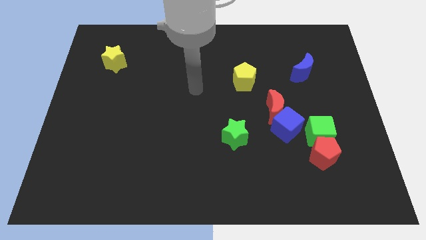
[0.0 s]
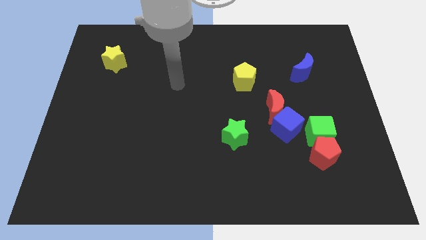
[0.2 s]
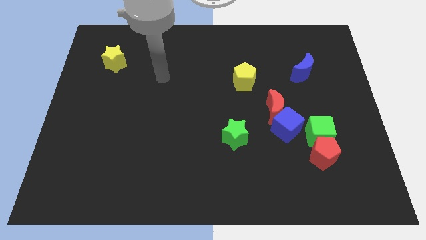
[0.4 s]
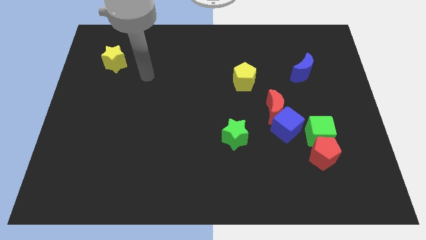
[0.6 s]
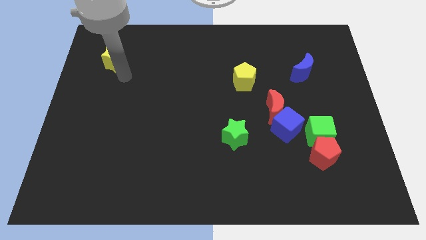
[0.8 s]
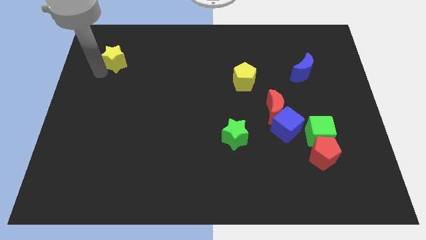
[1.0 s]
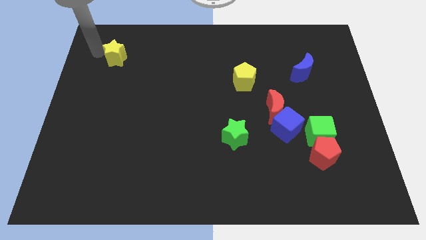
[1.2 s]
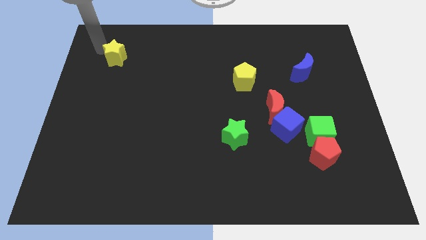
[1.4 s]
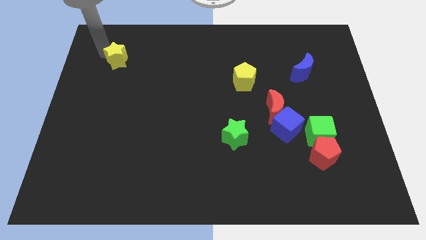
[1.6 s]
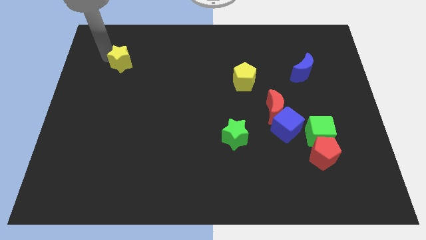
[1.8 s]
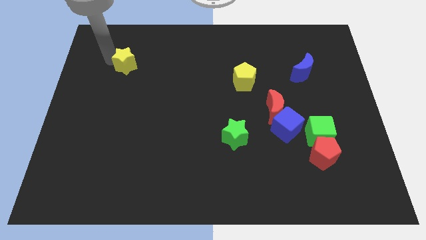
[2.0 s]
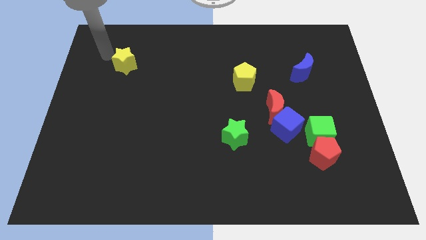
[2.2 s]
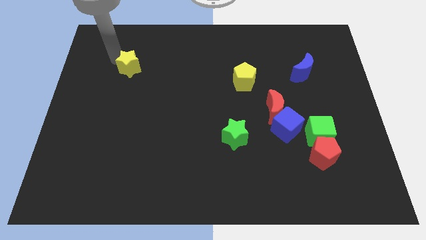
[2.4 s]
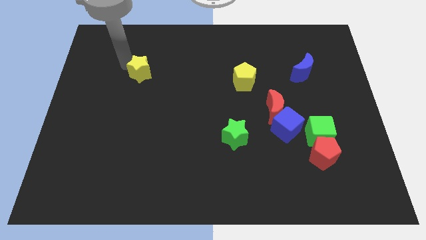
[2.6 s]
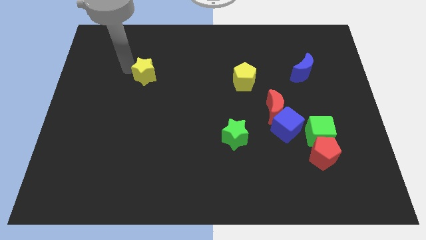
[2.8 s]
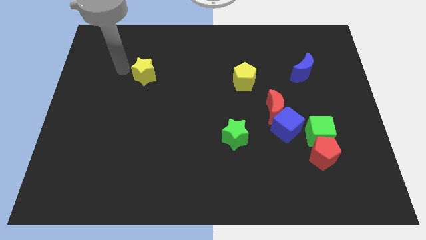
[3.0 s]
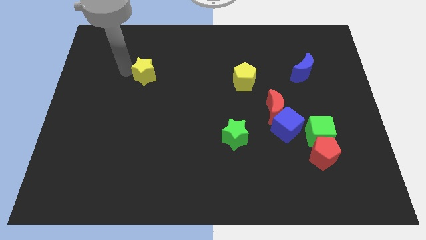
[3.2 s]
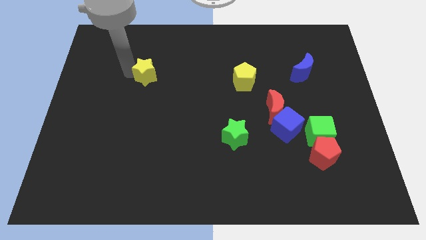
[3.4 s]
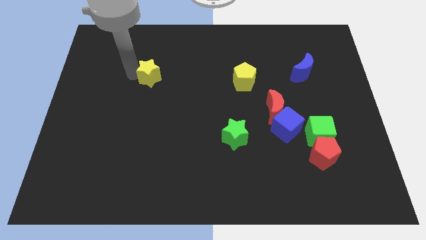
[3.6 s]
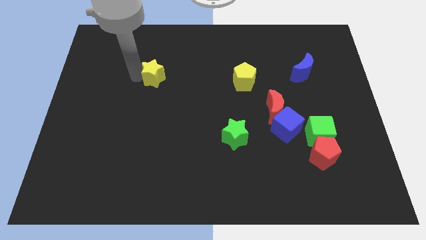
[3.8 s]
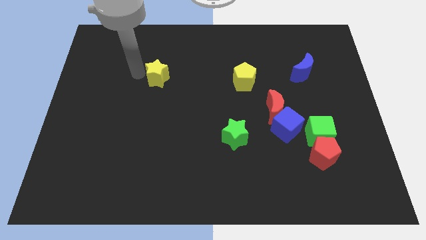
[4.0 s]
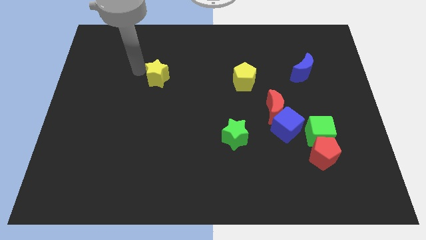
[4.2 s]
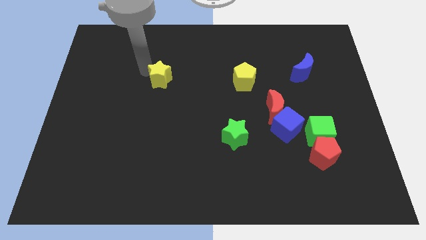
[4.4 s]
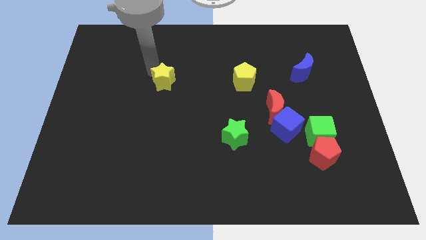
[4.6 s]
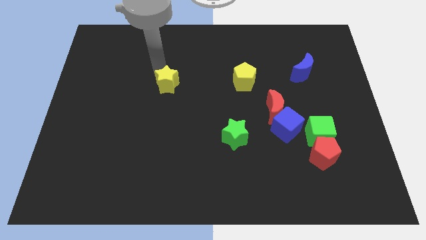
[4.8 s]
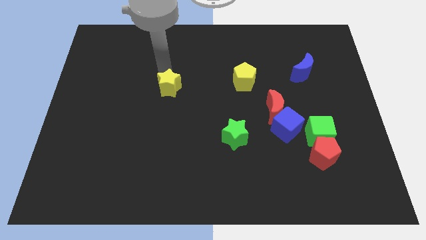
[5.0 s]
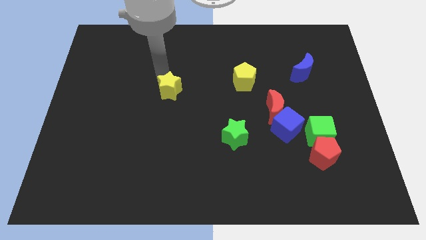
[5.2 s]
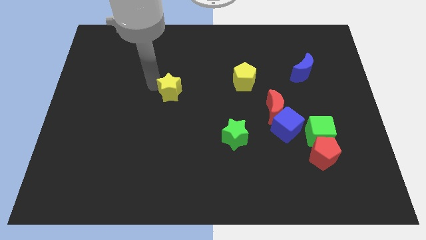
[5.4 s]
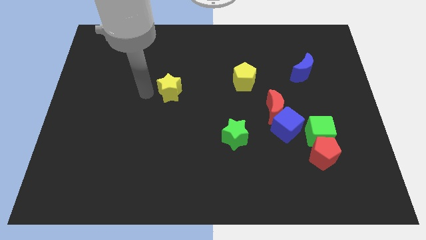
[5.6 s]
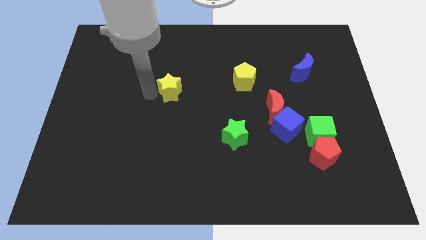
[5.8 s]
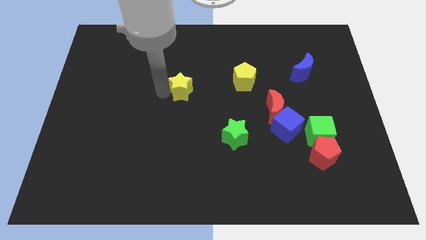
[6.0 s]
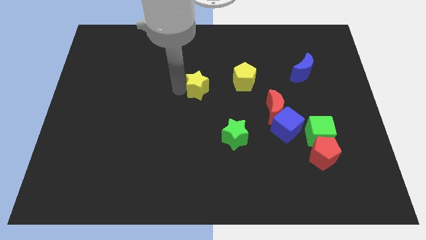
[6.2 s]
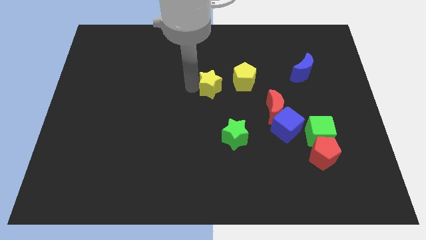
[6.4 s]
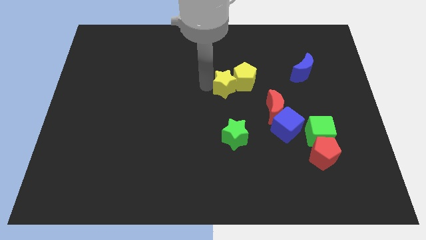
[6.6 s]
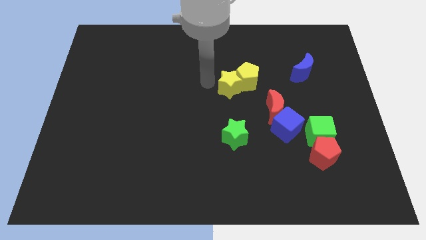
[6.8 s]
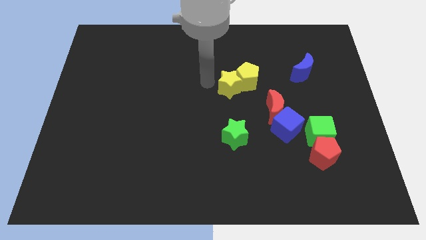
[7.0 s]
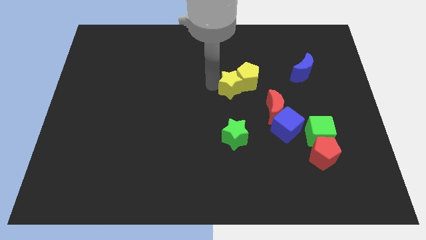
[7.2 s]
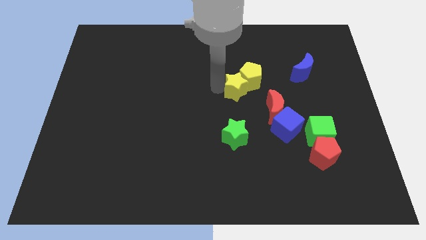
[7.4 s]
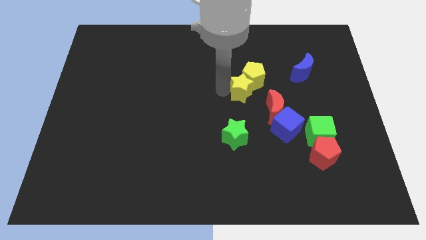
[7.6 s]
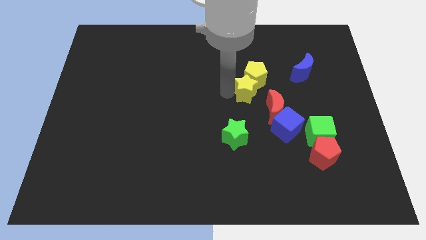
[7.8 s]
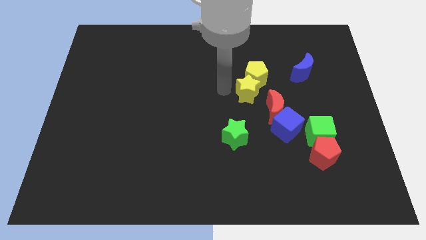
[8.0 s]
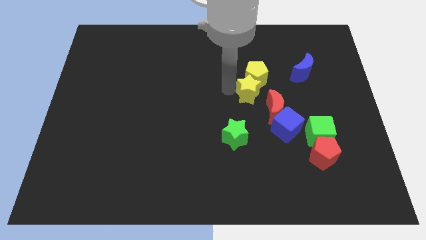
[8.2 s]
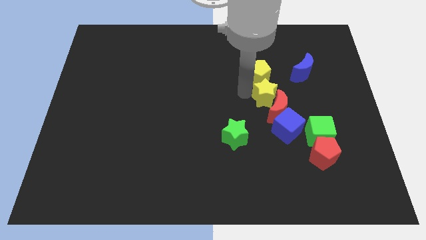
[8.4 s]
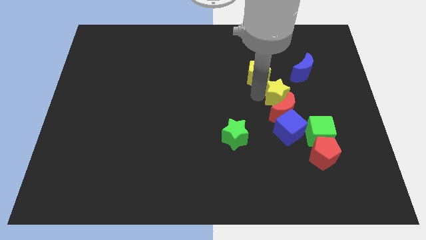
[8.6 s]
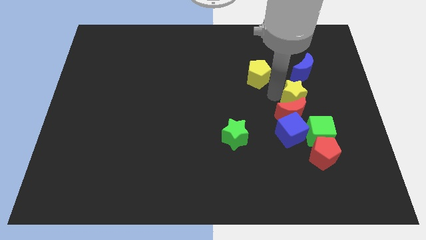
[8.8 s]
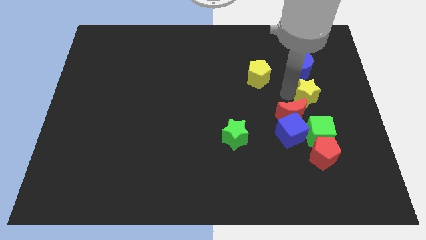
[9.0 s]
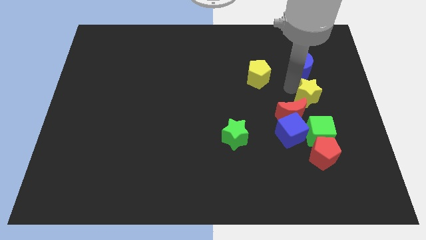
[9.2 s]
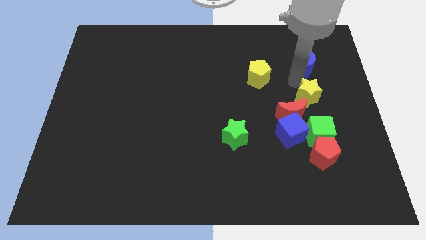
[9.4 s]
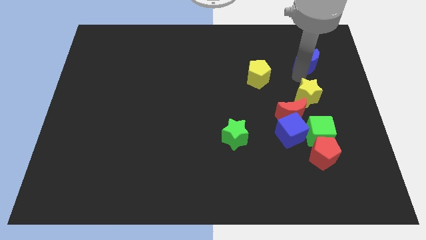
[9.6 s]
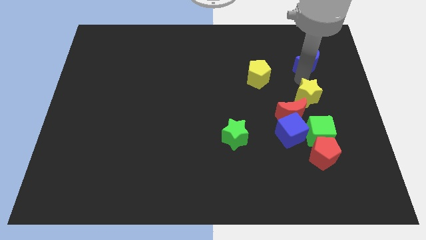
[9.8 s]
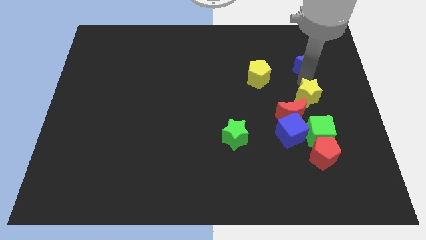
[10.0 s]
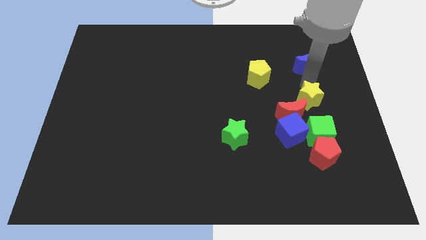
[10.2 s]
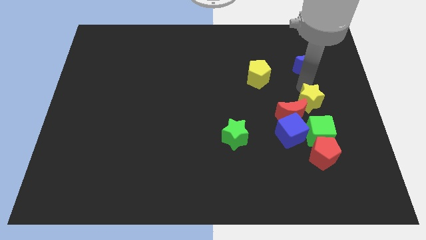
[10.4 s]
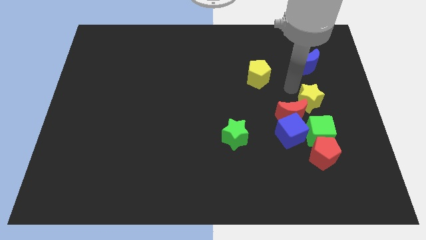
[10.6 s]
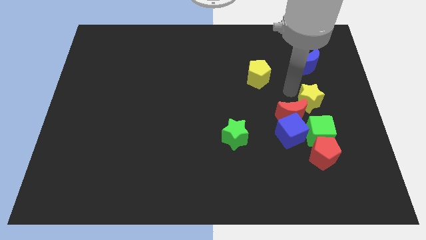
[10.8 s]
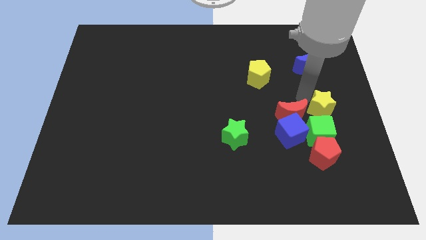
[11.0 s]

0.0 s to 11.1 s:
put the yellow star diagonally up and to the right of the green cube

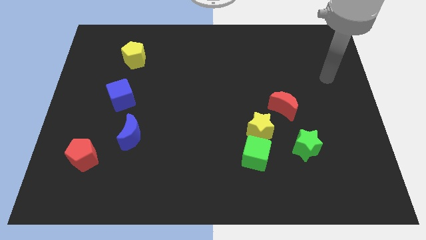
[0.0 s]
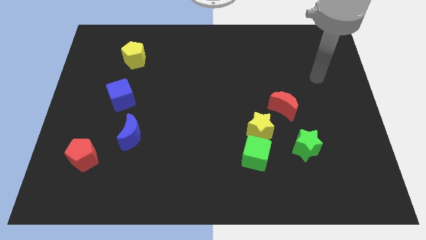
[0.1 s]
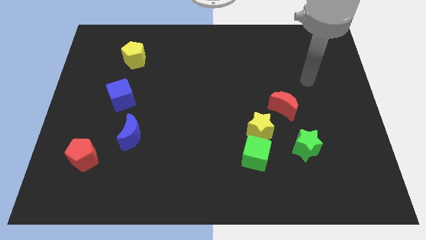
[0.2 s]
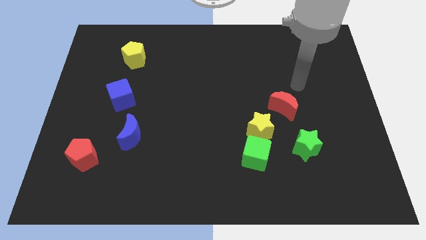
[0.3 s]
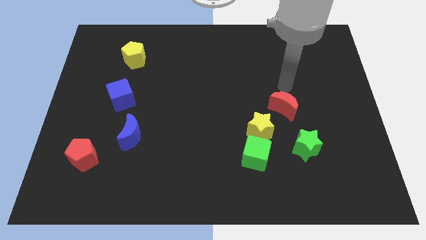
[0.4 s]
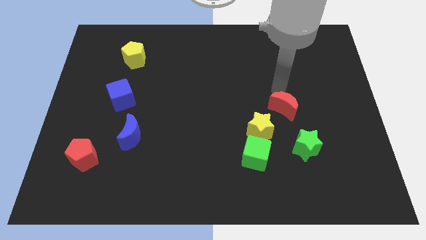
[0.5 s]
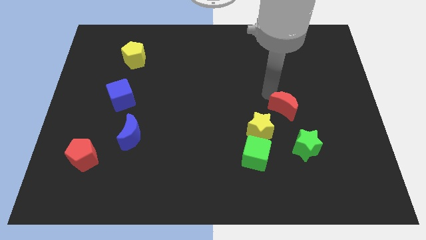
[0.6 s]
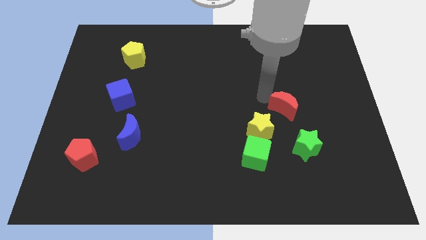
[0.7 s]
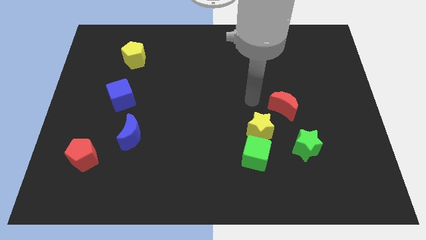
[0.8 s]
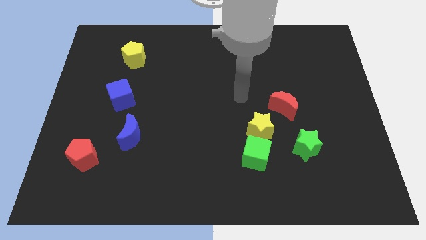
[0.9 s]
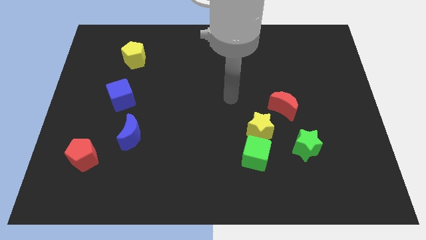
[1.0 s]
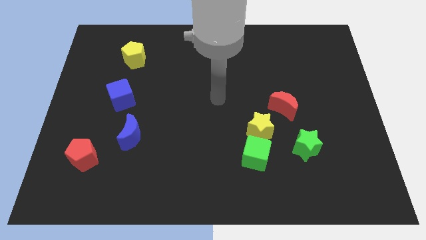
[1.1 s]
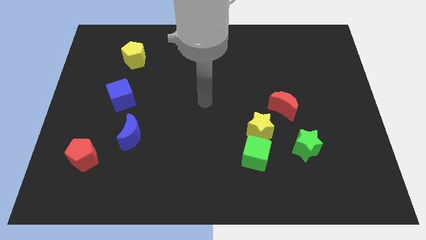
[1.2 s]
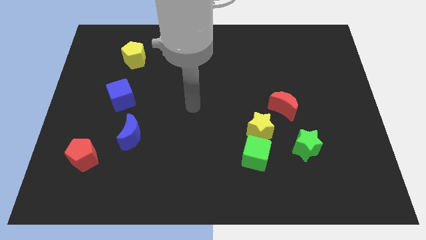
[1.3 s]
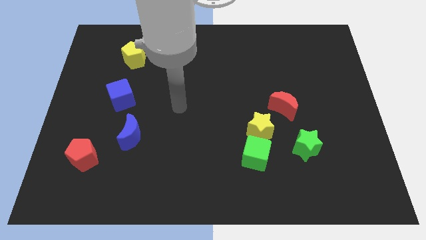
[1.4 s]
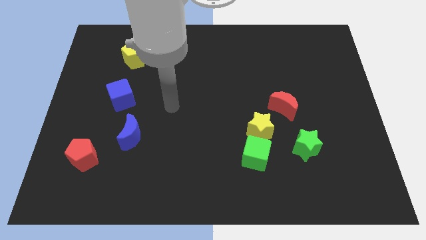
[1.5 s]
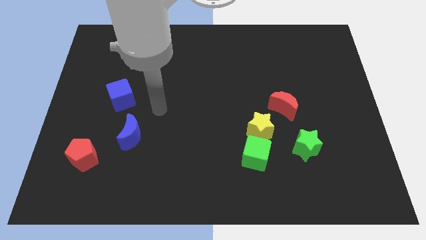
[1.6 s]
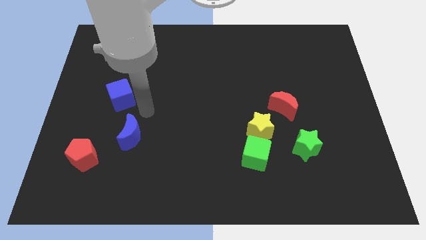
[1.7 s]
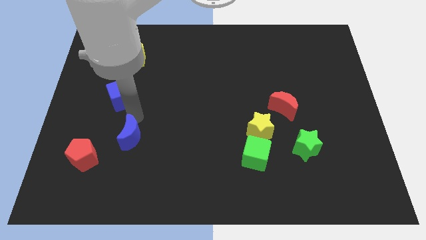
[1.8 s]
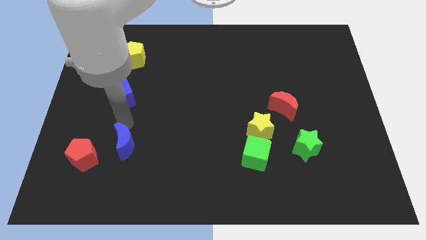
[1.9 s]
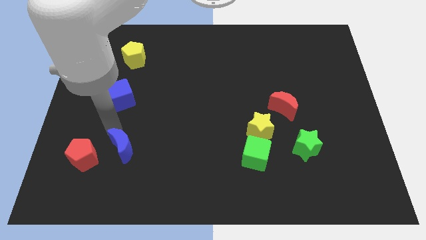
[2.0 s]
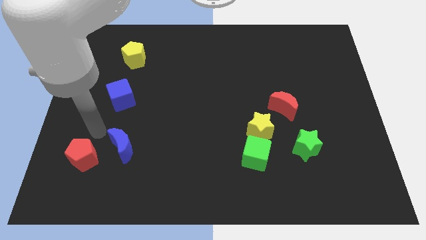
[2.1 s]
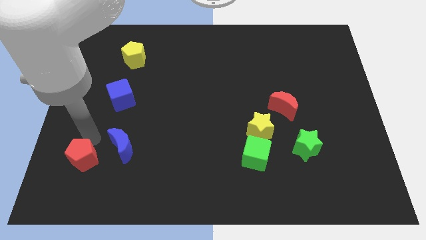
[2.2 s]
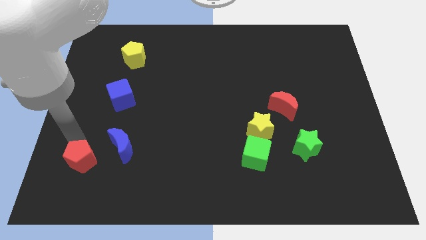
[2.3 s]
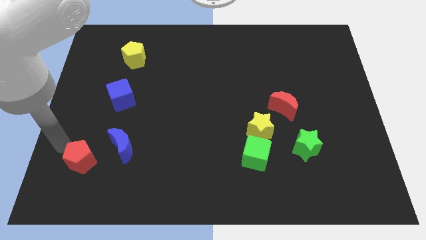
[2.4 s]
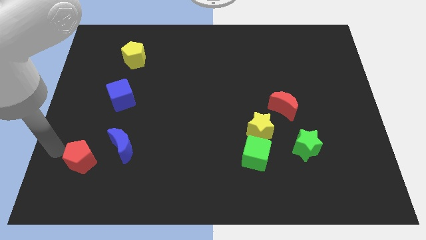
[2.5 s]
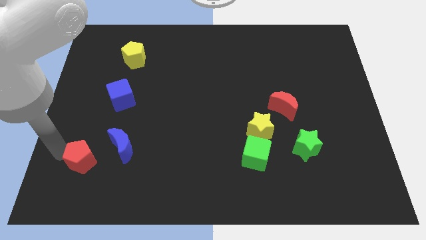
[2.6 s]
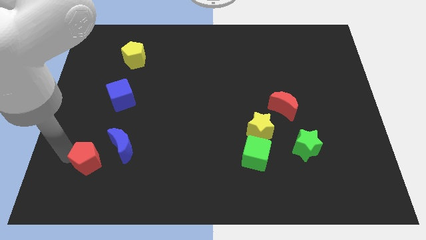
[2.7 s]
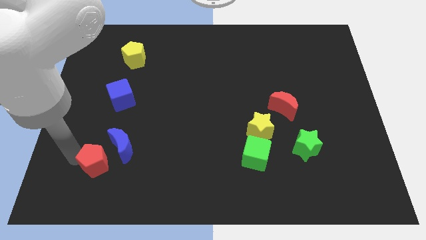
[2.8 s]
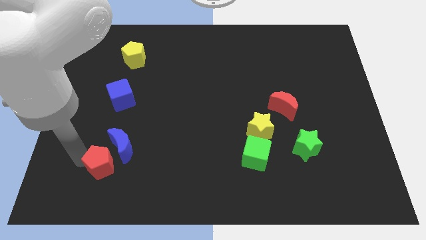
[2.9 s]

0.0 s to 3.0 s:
put the red pentagon below the blue moon
